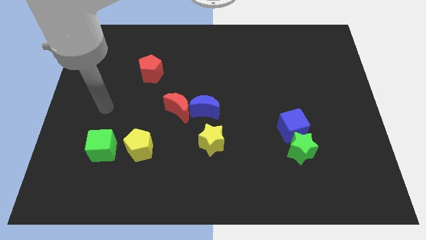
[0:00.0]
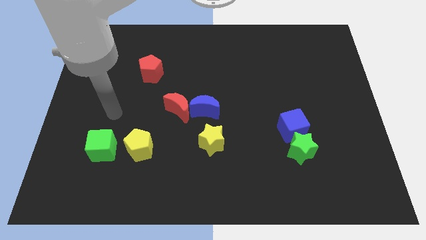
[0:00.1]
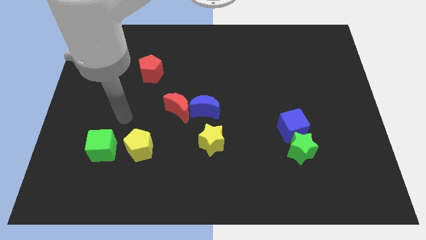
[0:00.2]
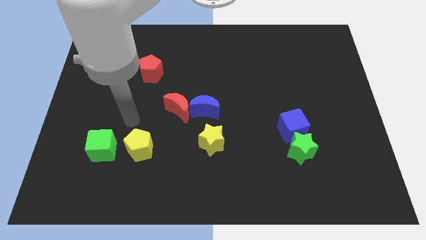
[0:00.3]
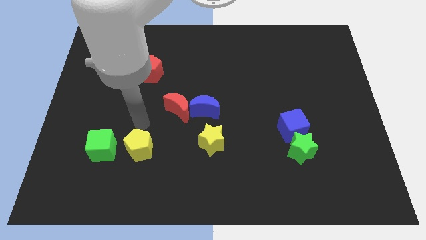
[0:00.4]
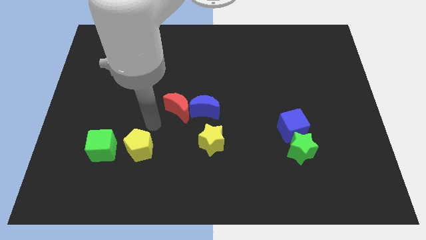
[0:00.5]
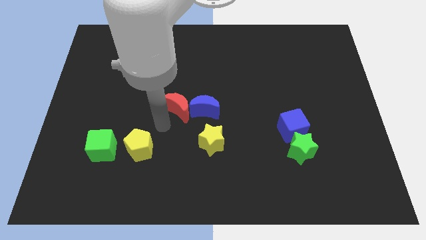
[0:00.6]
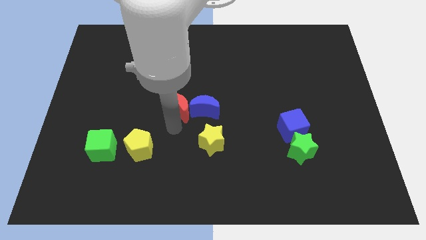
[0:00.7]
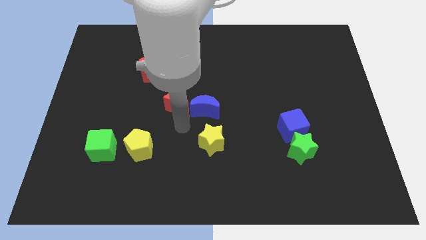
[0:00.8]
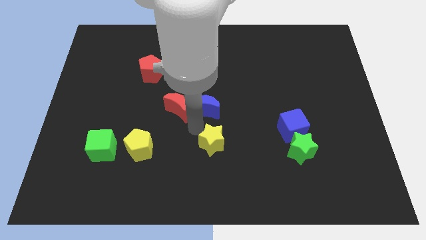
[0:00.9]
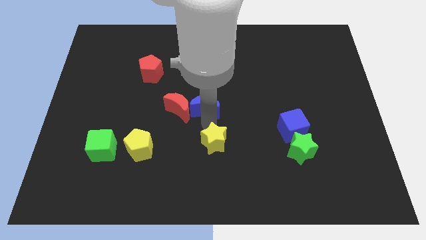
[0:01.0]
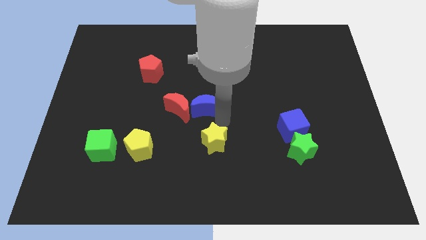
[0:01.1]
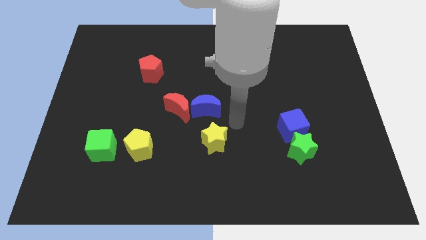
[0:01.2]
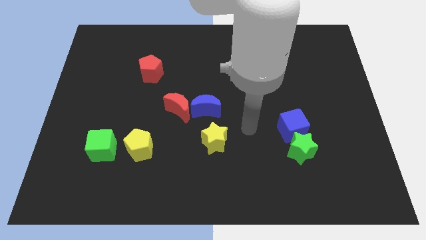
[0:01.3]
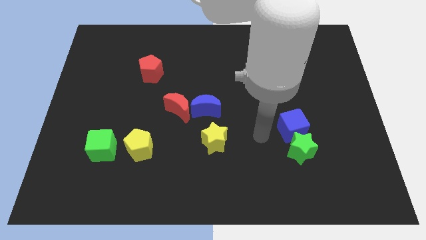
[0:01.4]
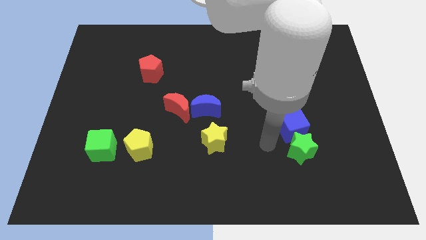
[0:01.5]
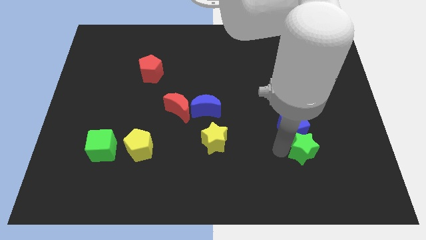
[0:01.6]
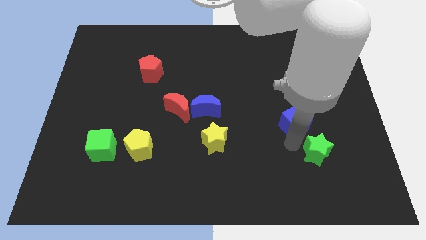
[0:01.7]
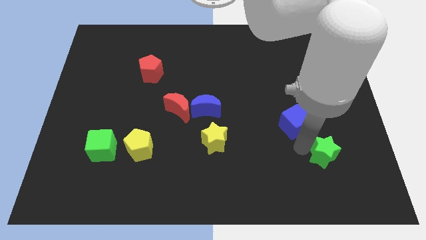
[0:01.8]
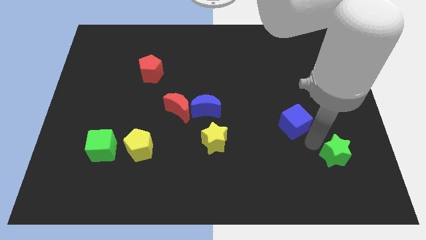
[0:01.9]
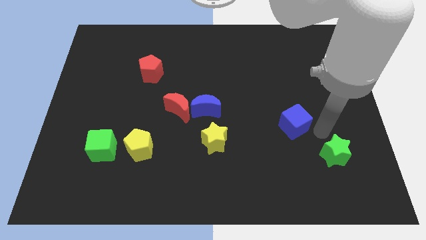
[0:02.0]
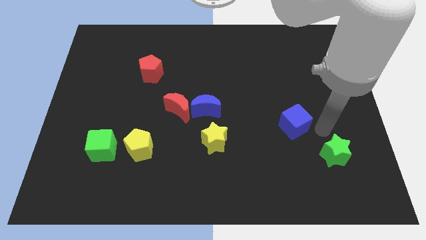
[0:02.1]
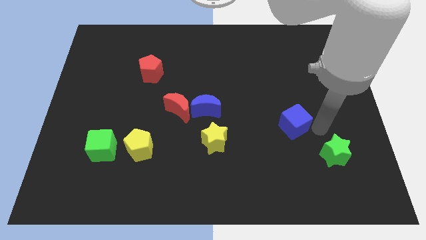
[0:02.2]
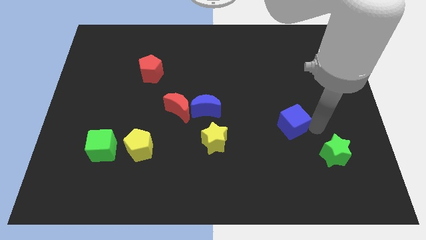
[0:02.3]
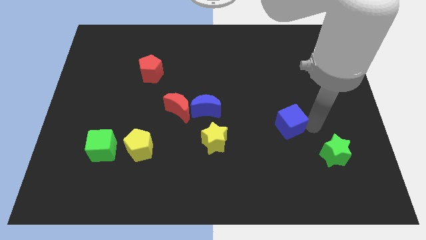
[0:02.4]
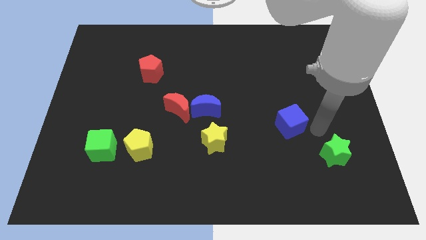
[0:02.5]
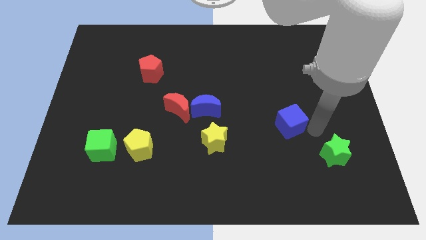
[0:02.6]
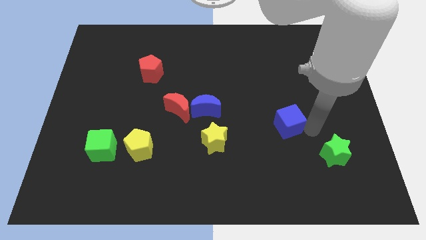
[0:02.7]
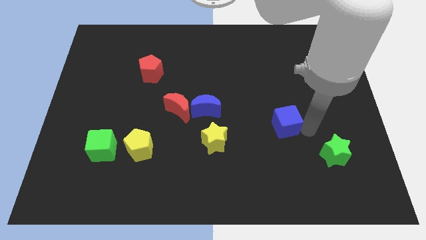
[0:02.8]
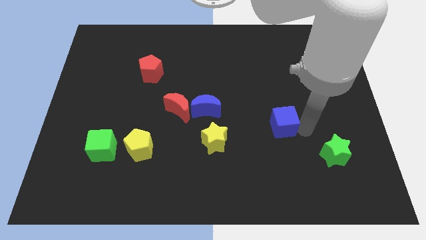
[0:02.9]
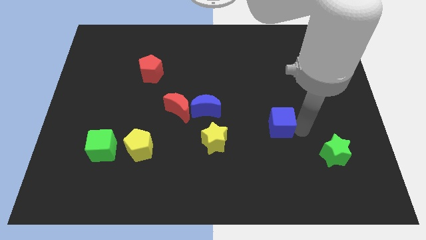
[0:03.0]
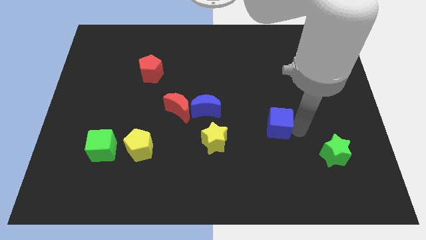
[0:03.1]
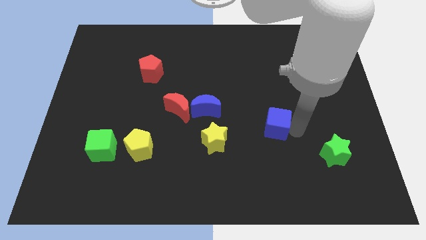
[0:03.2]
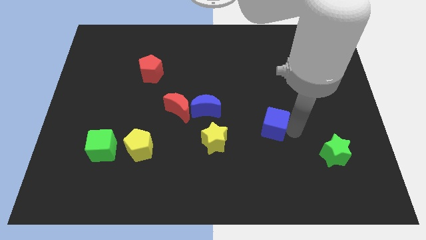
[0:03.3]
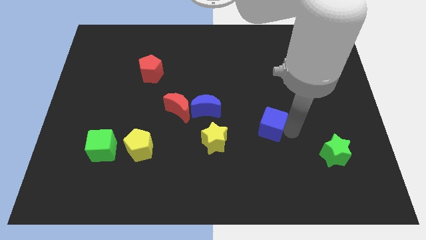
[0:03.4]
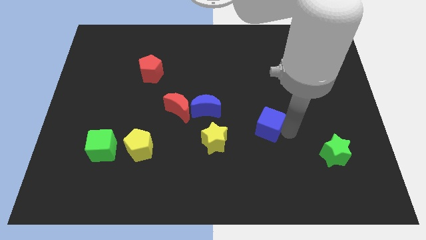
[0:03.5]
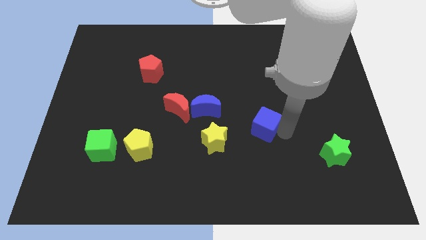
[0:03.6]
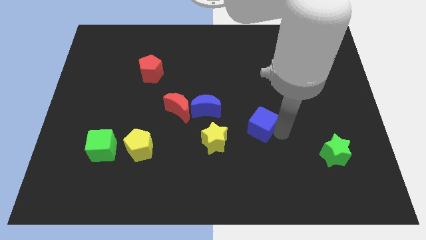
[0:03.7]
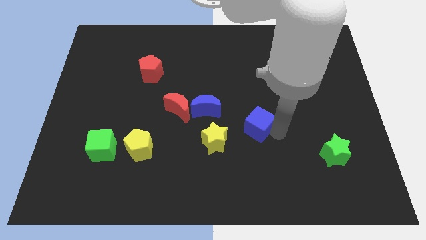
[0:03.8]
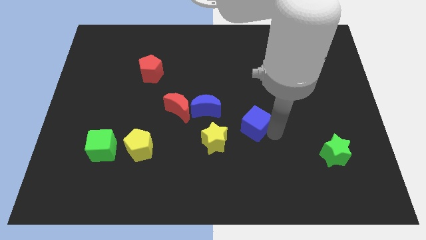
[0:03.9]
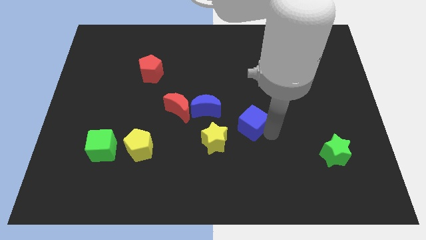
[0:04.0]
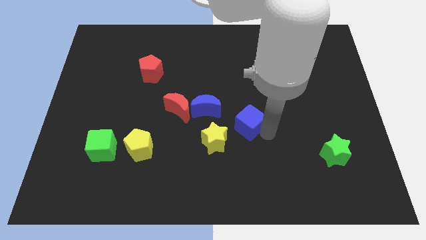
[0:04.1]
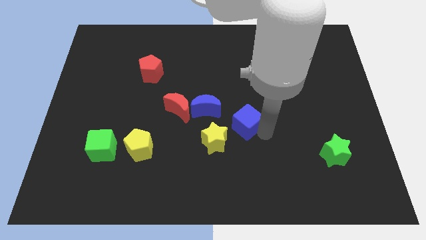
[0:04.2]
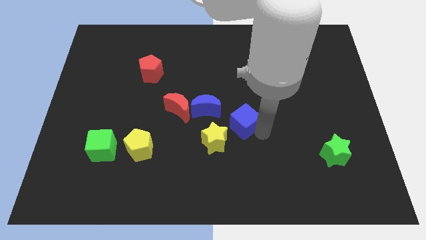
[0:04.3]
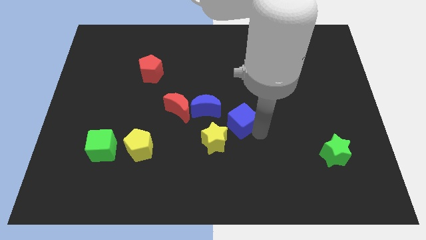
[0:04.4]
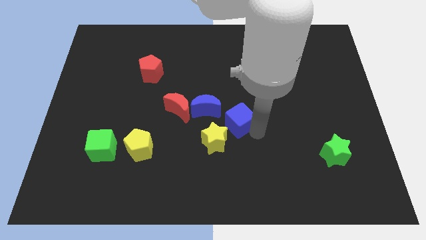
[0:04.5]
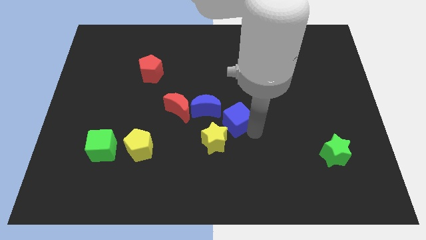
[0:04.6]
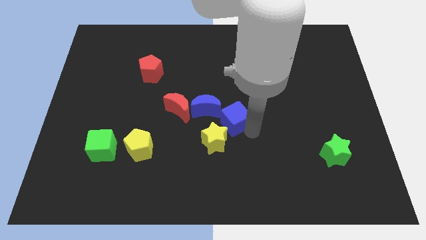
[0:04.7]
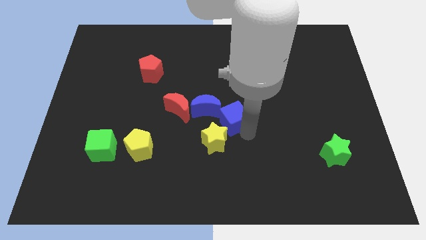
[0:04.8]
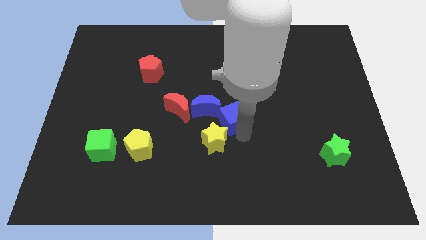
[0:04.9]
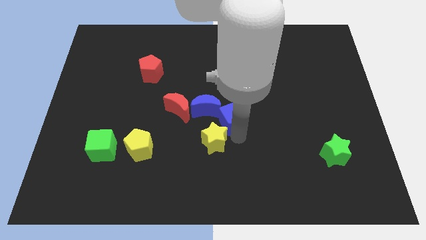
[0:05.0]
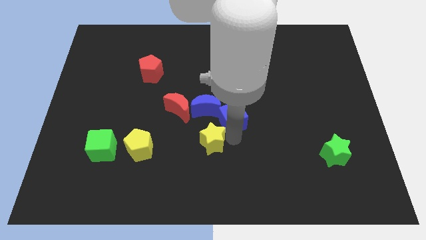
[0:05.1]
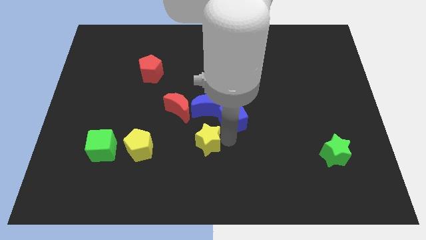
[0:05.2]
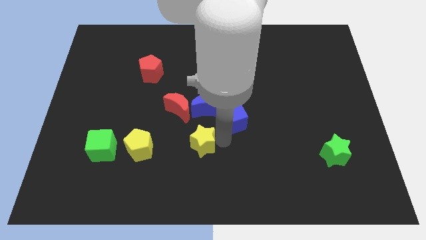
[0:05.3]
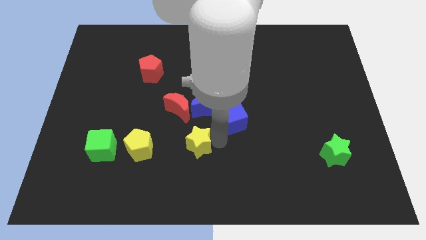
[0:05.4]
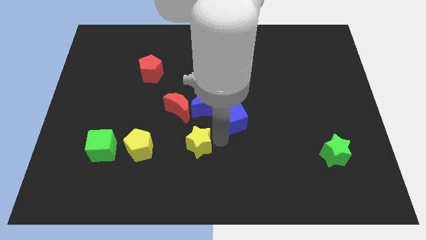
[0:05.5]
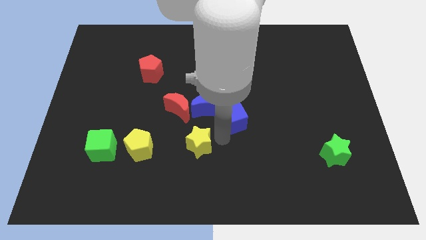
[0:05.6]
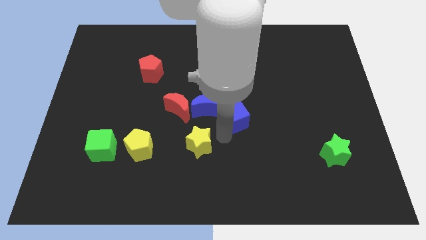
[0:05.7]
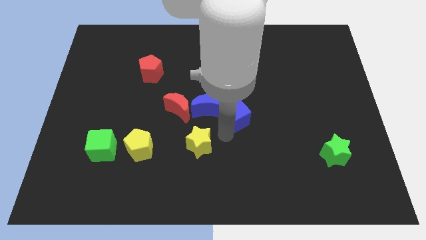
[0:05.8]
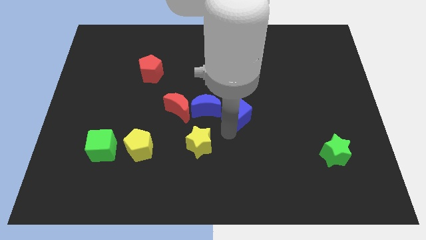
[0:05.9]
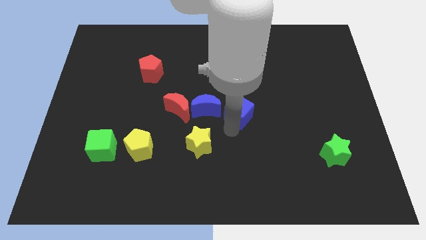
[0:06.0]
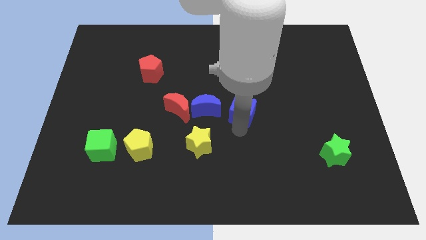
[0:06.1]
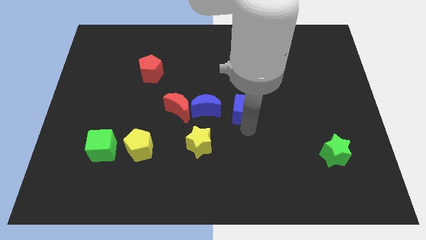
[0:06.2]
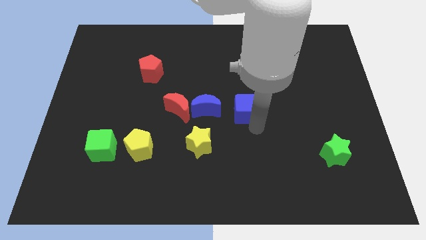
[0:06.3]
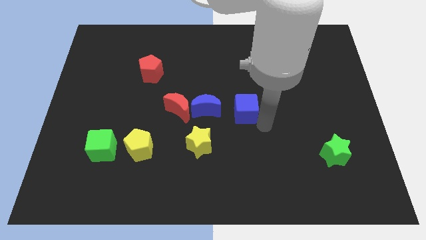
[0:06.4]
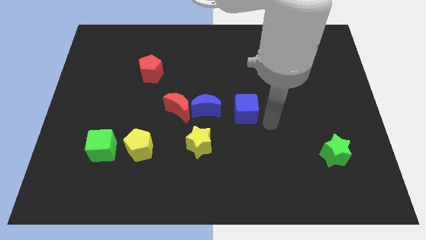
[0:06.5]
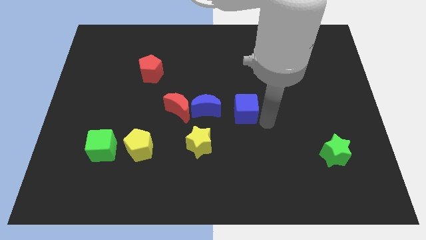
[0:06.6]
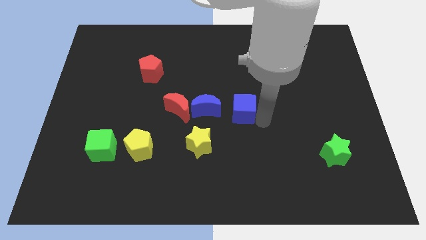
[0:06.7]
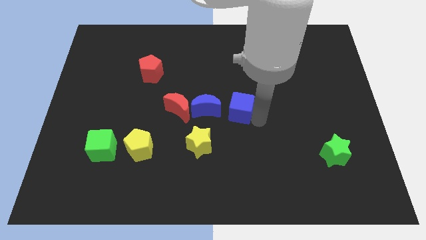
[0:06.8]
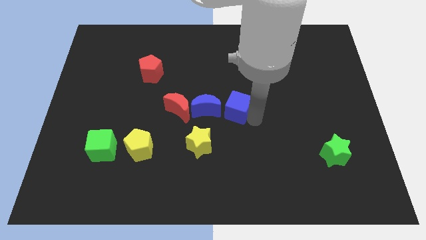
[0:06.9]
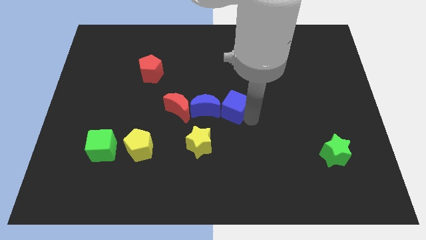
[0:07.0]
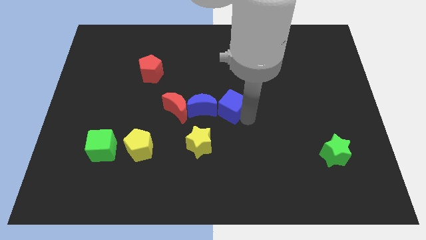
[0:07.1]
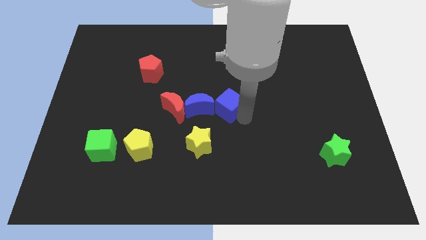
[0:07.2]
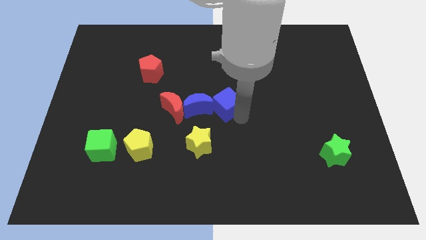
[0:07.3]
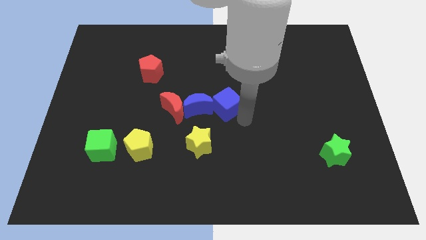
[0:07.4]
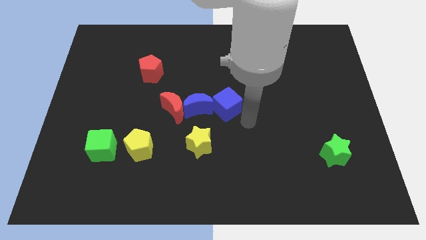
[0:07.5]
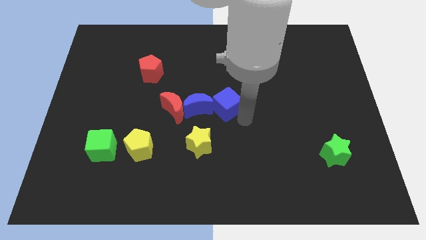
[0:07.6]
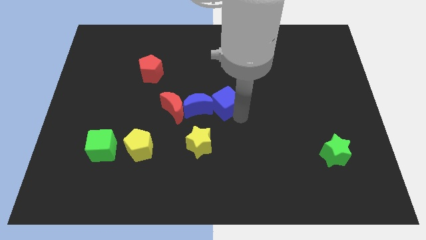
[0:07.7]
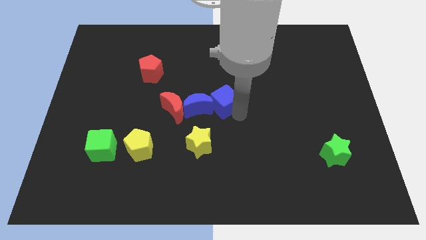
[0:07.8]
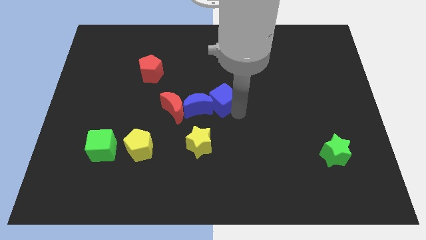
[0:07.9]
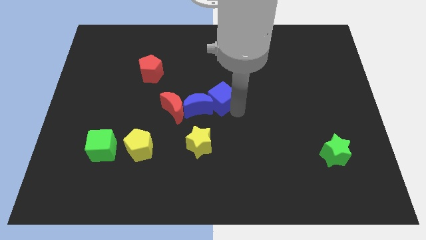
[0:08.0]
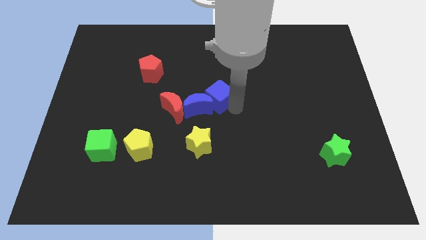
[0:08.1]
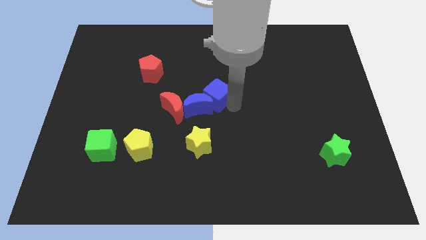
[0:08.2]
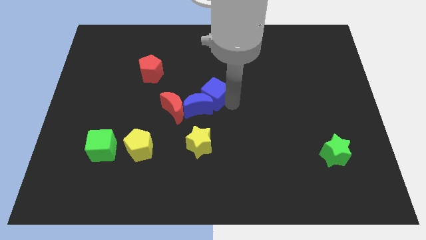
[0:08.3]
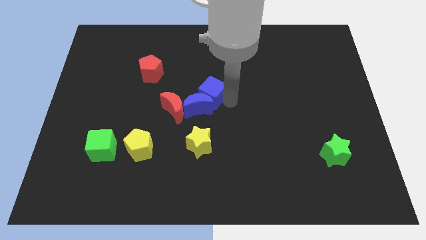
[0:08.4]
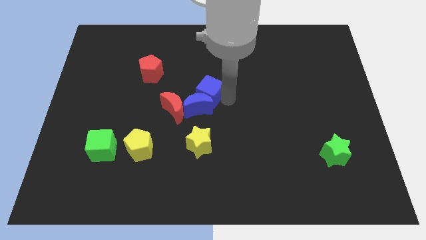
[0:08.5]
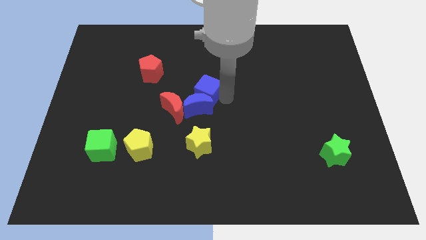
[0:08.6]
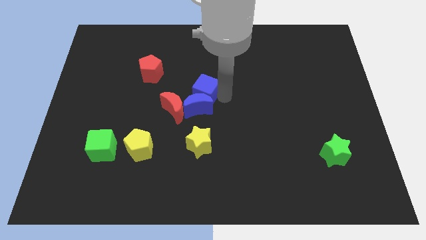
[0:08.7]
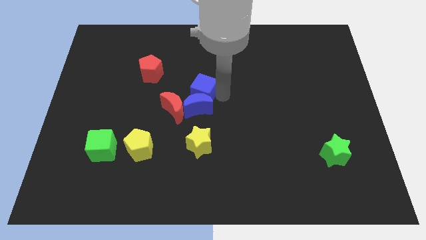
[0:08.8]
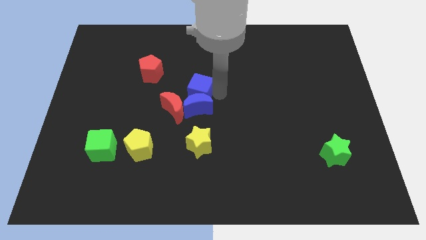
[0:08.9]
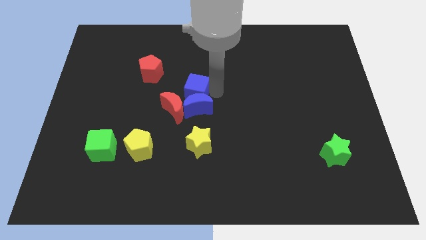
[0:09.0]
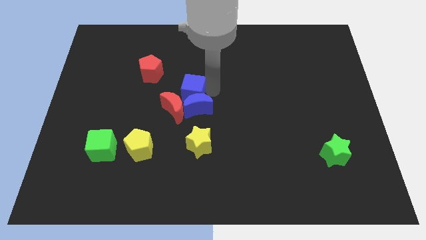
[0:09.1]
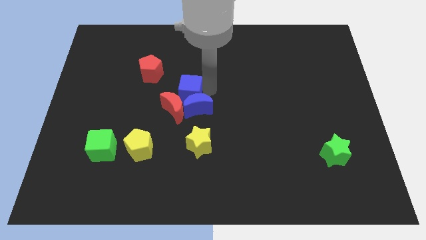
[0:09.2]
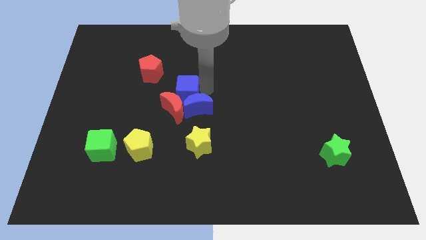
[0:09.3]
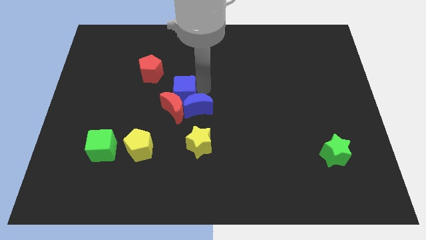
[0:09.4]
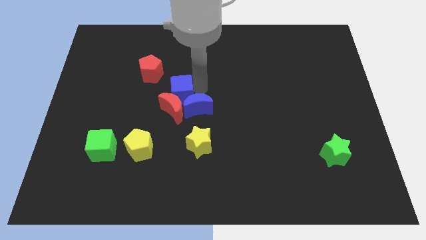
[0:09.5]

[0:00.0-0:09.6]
move the blue cube left
